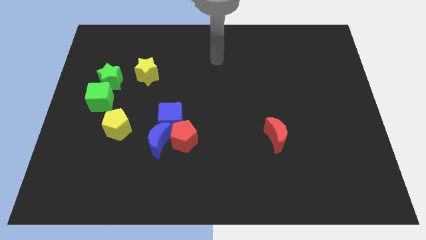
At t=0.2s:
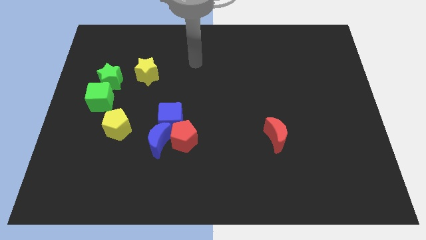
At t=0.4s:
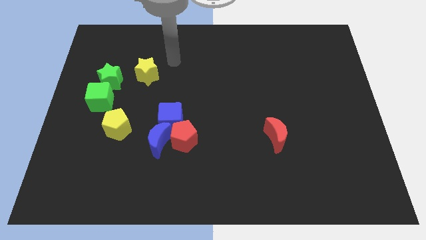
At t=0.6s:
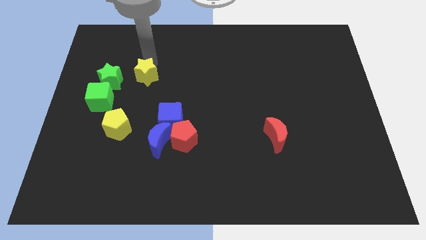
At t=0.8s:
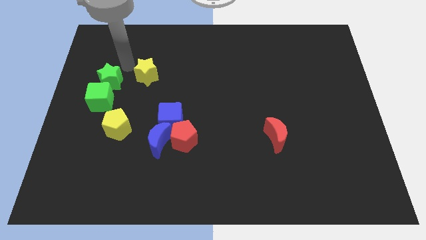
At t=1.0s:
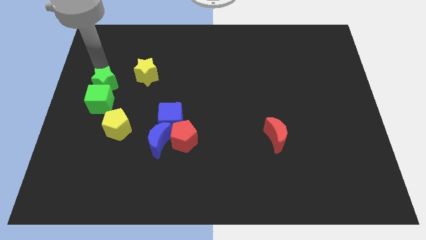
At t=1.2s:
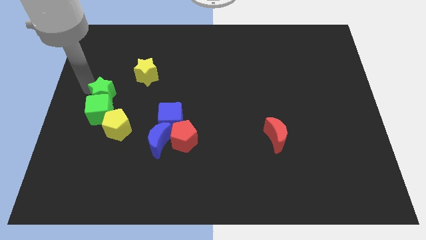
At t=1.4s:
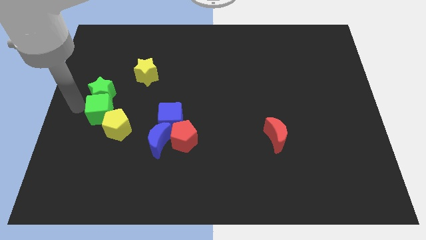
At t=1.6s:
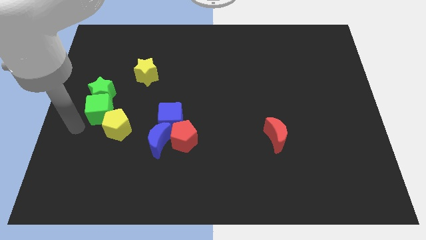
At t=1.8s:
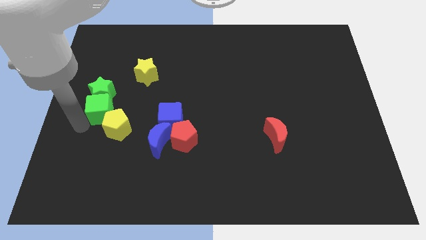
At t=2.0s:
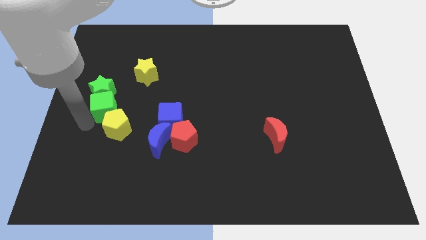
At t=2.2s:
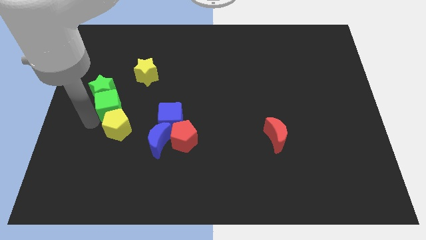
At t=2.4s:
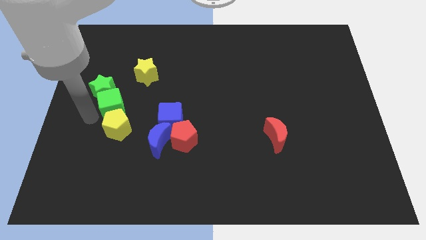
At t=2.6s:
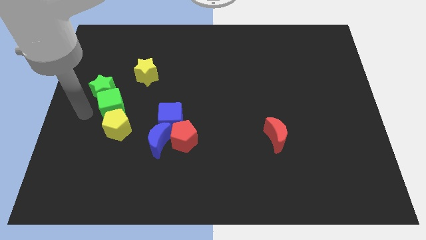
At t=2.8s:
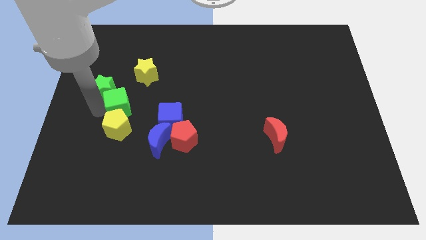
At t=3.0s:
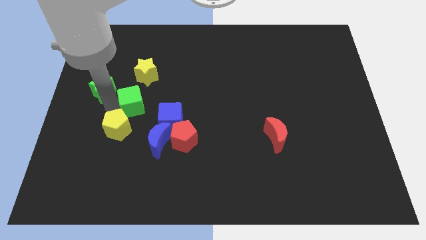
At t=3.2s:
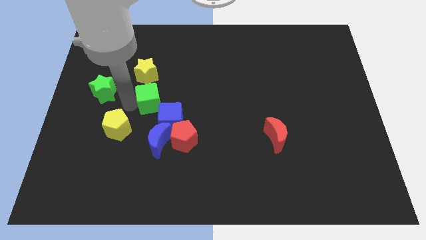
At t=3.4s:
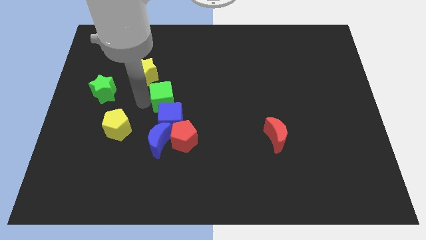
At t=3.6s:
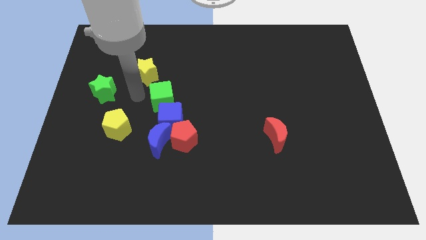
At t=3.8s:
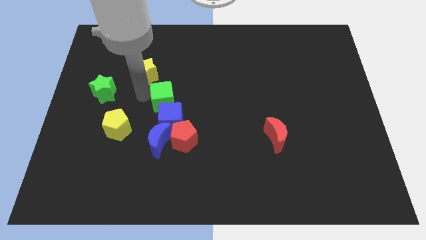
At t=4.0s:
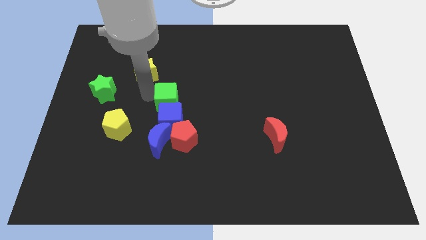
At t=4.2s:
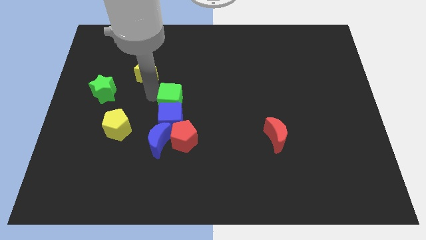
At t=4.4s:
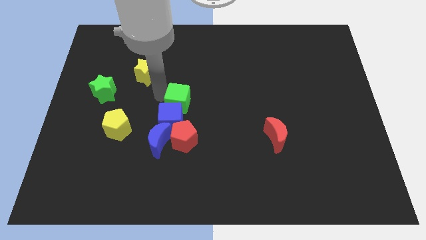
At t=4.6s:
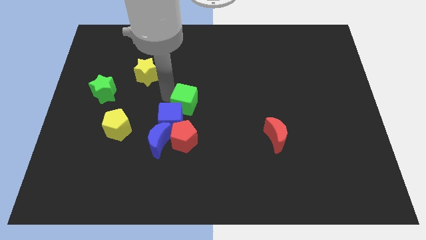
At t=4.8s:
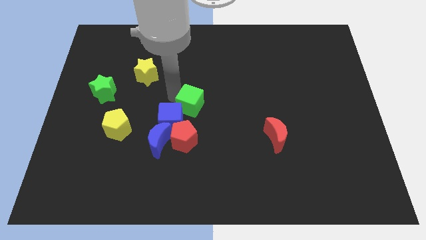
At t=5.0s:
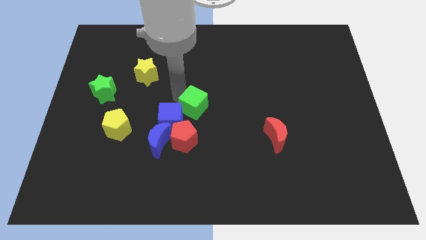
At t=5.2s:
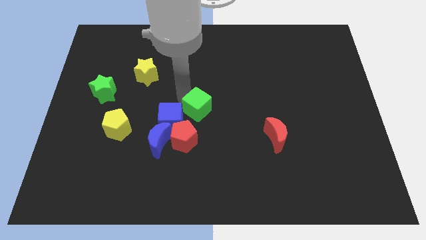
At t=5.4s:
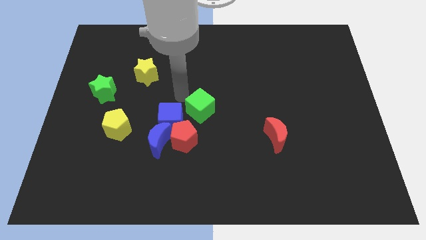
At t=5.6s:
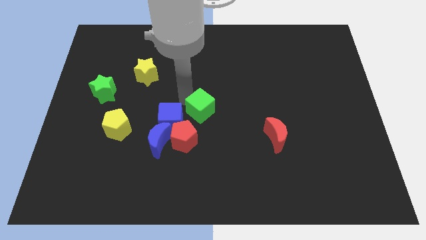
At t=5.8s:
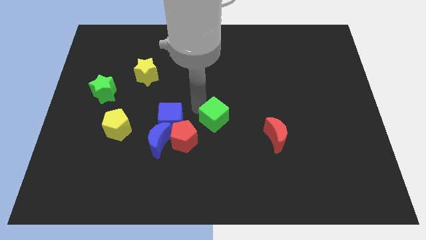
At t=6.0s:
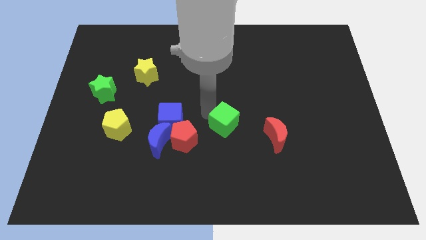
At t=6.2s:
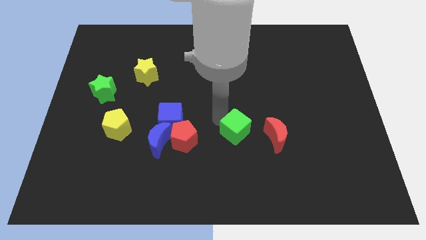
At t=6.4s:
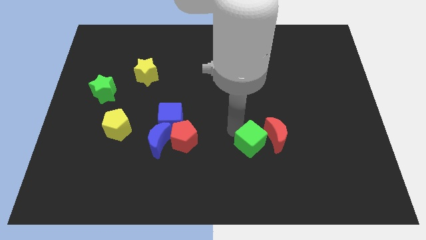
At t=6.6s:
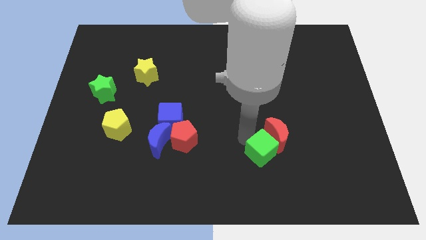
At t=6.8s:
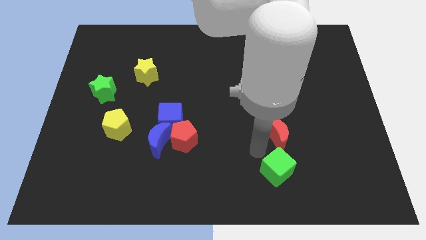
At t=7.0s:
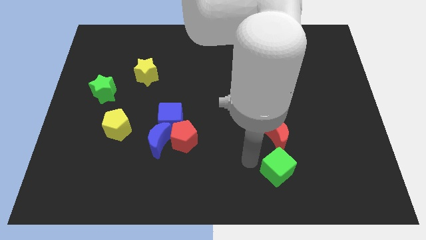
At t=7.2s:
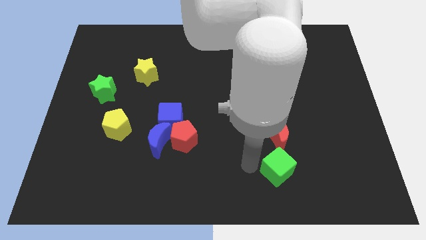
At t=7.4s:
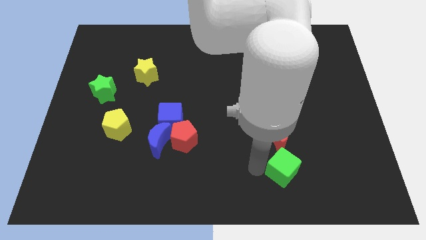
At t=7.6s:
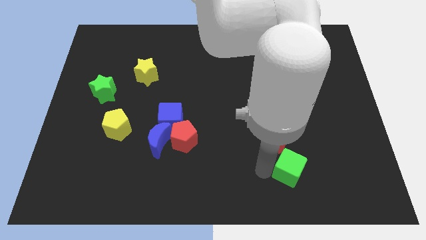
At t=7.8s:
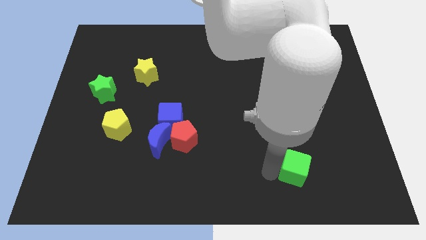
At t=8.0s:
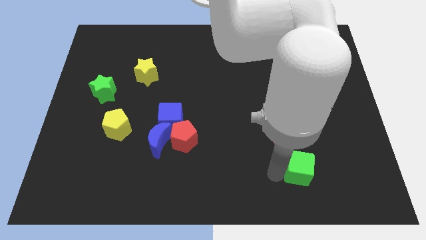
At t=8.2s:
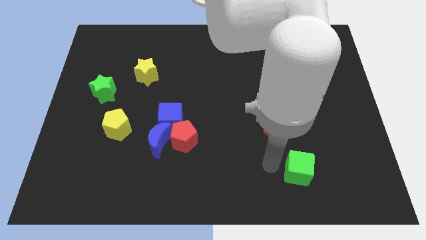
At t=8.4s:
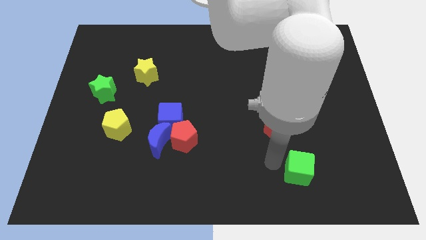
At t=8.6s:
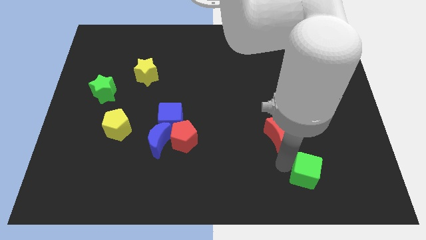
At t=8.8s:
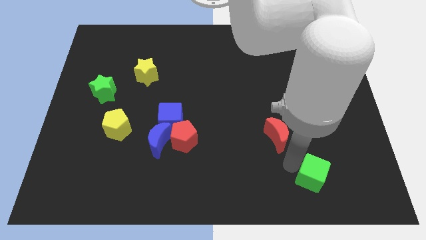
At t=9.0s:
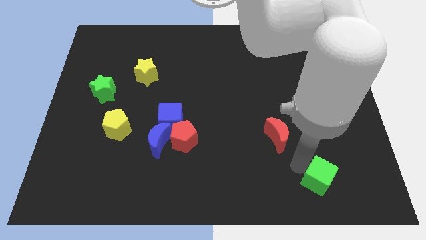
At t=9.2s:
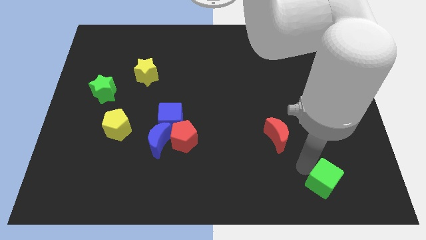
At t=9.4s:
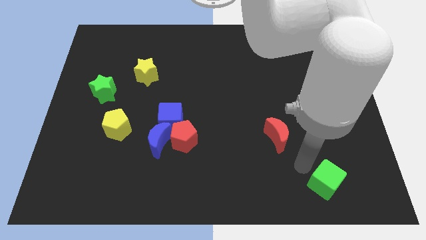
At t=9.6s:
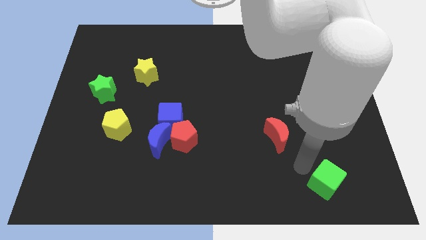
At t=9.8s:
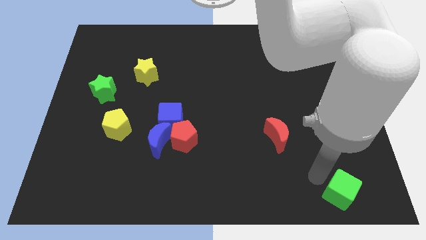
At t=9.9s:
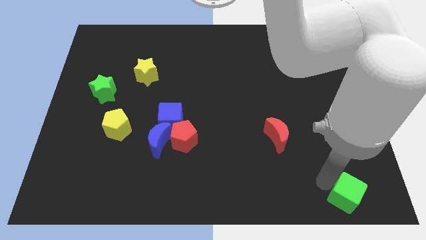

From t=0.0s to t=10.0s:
put the green cube to the lower right corner

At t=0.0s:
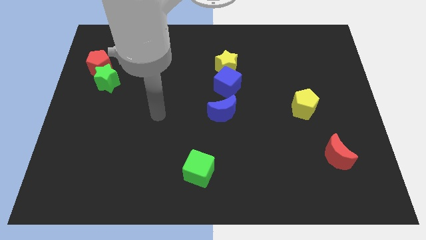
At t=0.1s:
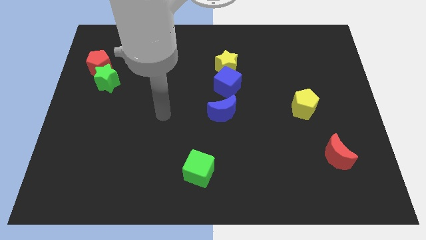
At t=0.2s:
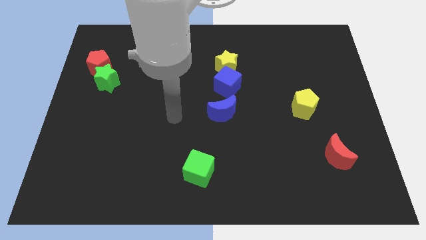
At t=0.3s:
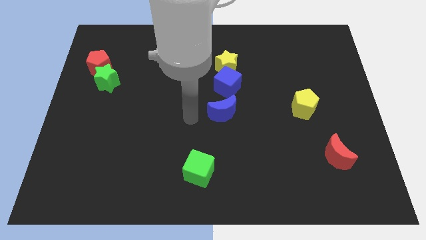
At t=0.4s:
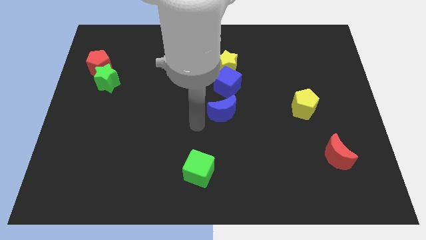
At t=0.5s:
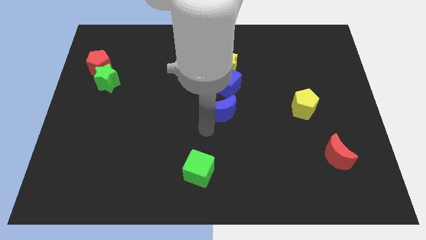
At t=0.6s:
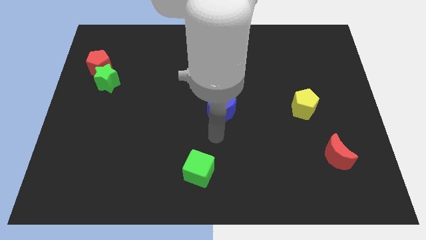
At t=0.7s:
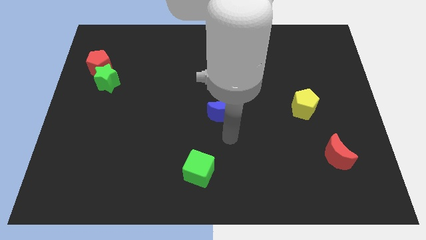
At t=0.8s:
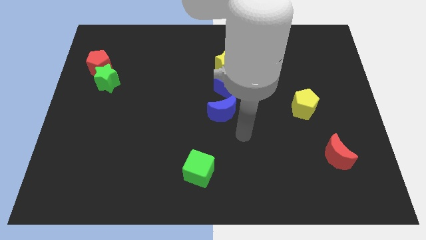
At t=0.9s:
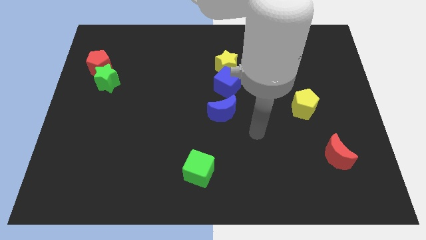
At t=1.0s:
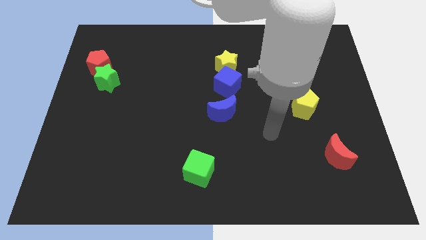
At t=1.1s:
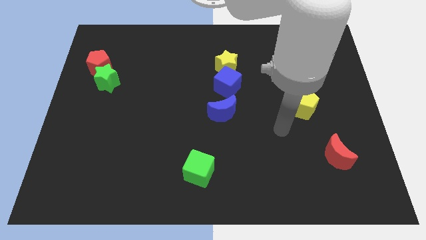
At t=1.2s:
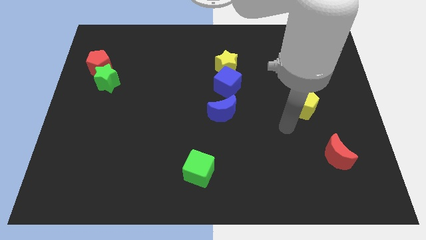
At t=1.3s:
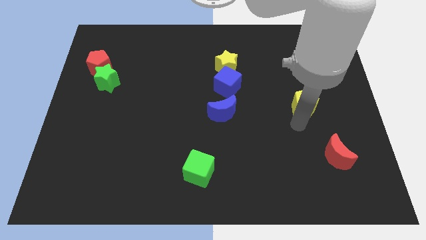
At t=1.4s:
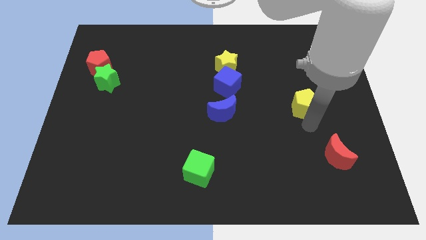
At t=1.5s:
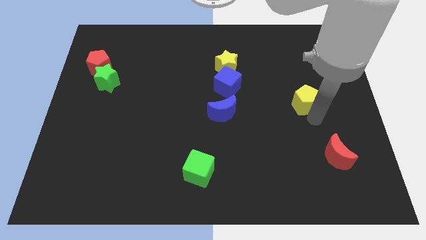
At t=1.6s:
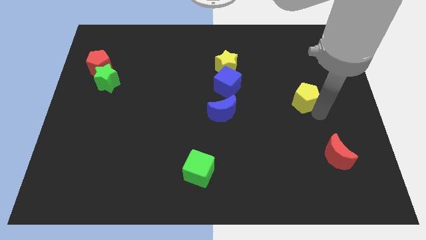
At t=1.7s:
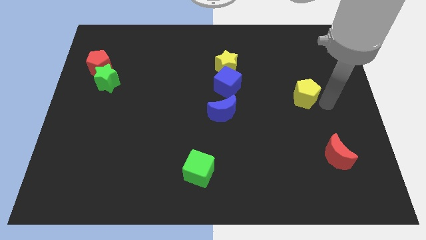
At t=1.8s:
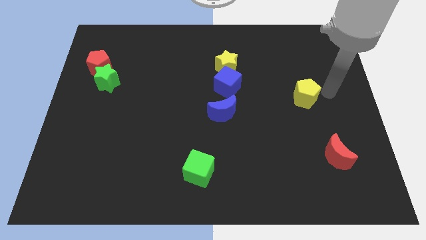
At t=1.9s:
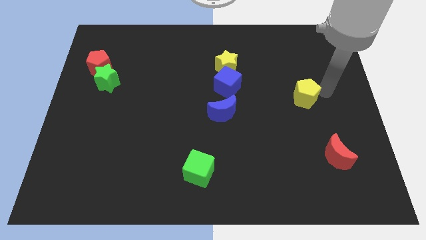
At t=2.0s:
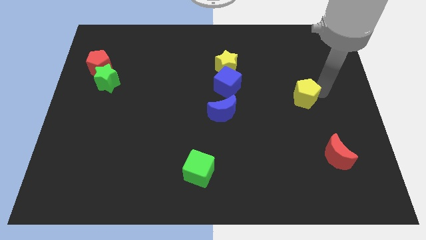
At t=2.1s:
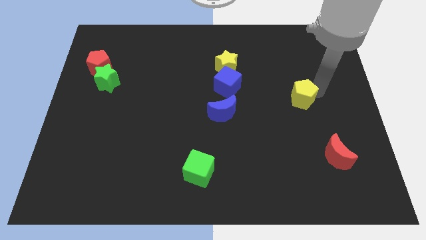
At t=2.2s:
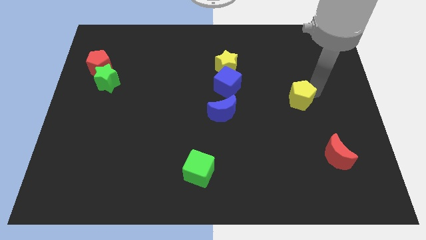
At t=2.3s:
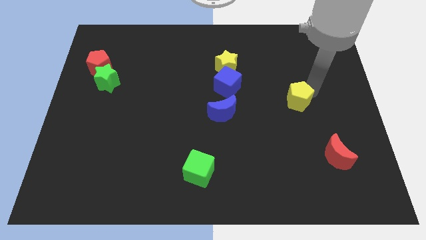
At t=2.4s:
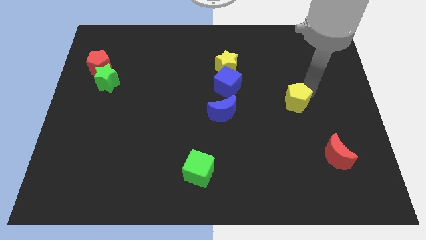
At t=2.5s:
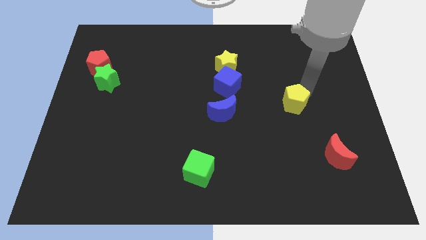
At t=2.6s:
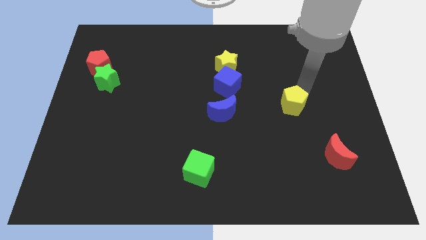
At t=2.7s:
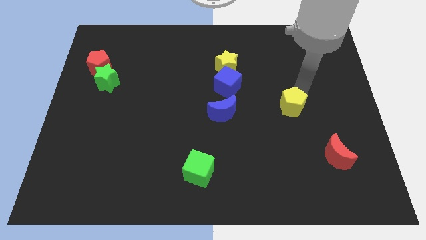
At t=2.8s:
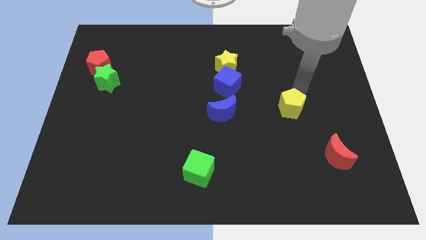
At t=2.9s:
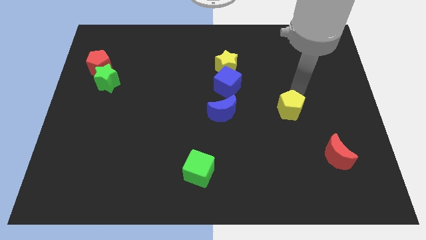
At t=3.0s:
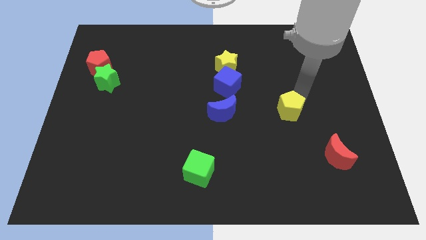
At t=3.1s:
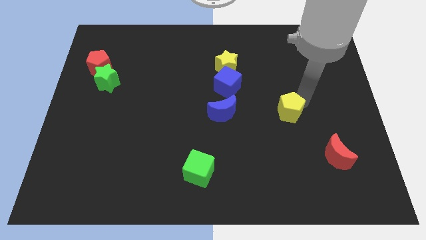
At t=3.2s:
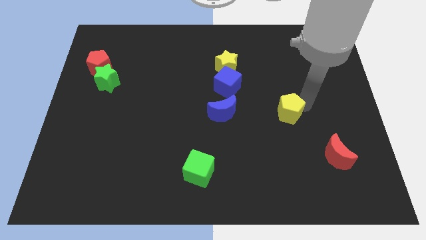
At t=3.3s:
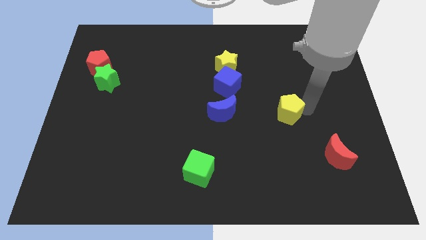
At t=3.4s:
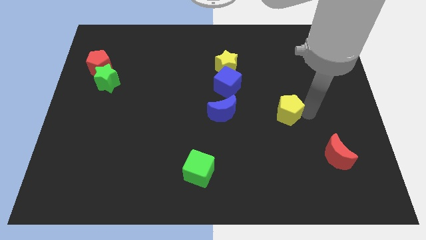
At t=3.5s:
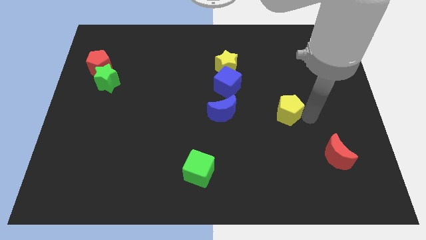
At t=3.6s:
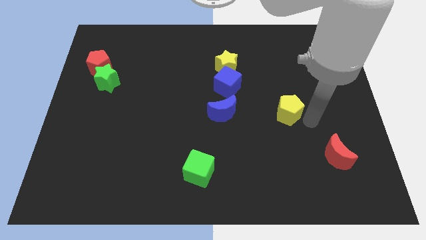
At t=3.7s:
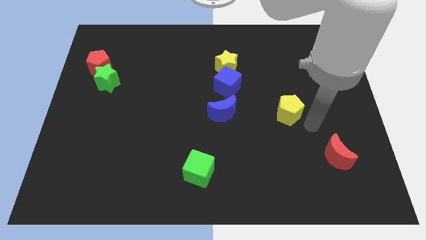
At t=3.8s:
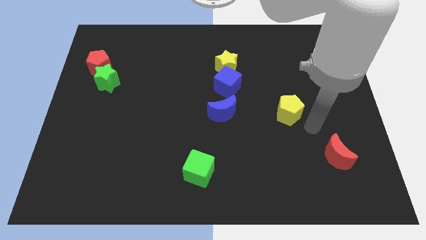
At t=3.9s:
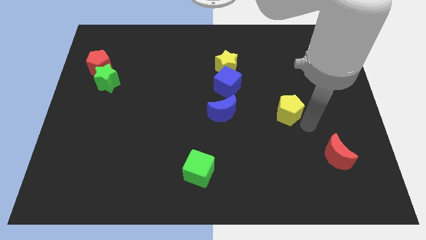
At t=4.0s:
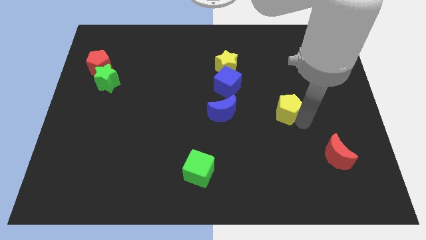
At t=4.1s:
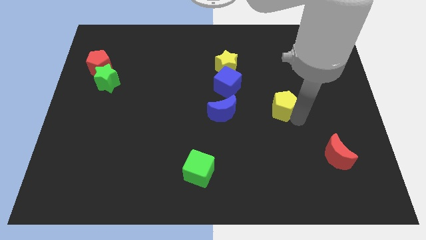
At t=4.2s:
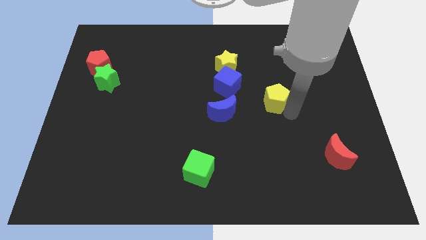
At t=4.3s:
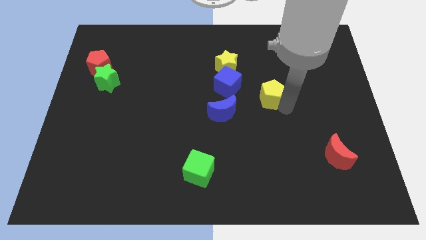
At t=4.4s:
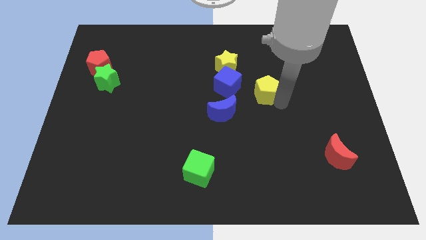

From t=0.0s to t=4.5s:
slide the yellow pentagon to the center of the board
